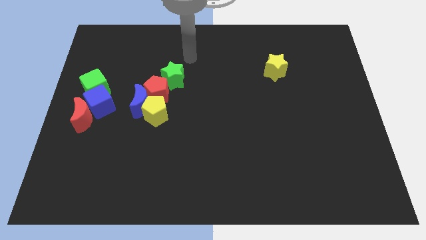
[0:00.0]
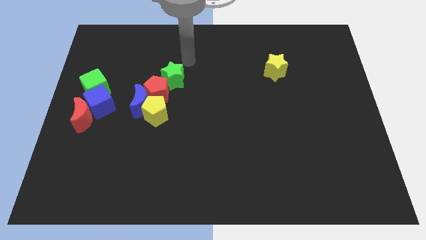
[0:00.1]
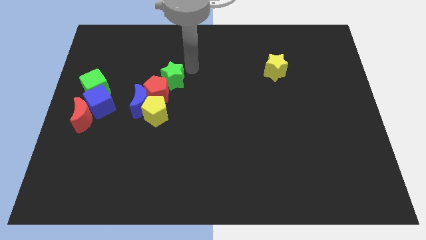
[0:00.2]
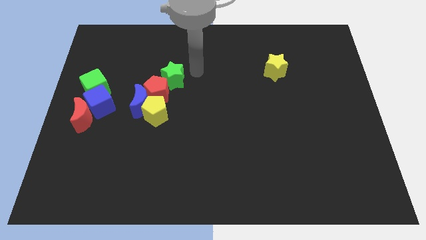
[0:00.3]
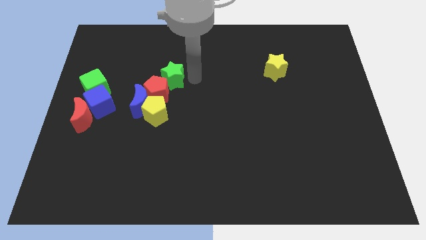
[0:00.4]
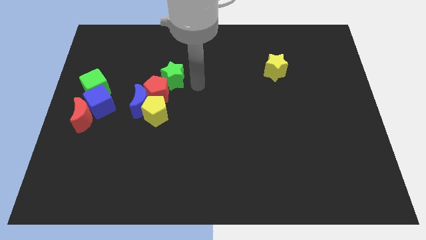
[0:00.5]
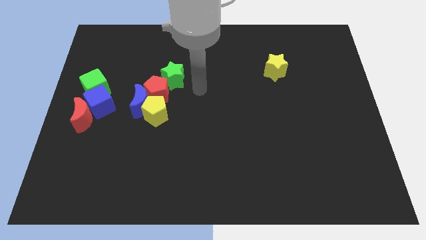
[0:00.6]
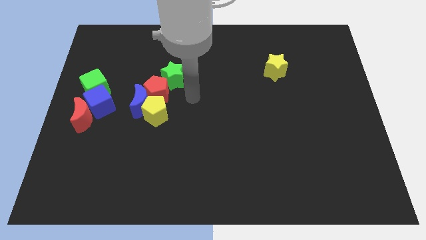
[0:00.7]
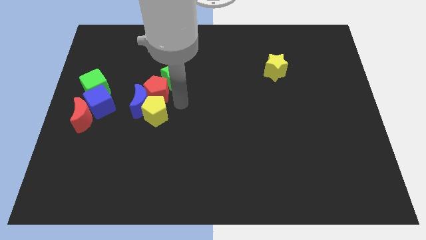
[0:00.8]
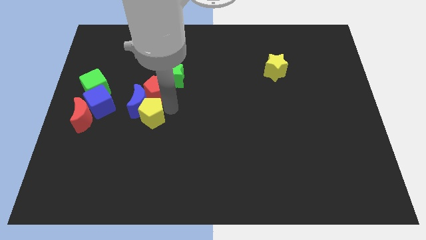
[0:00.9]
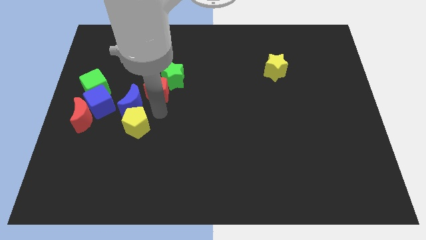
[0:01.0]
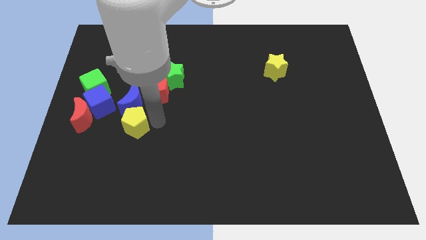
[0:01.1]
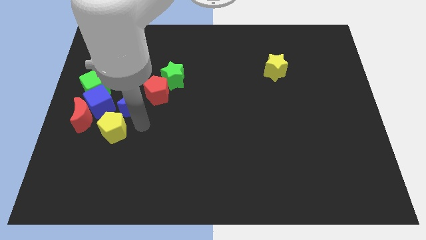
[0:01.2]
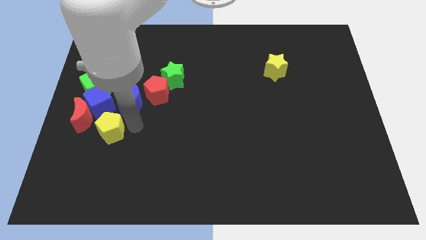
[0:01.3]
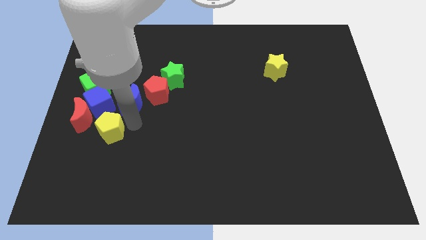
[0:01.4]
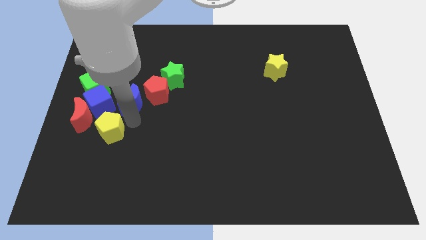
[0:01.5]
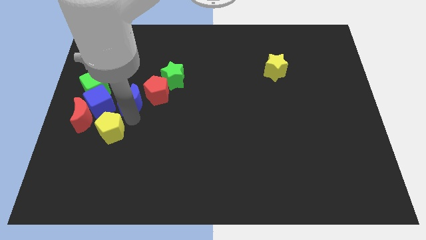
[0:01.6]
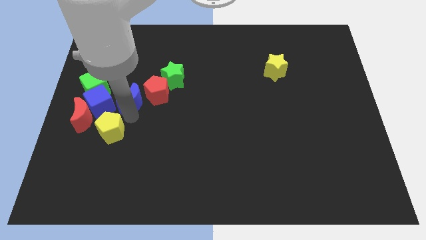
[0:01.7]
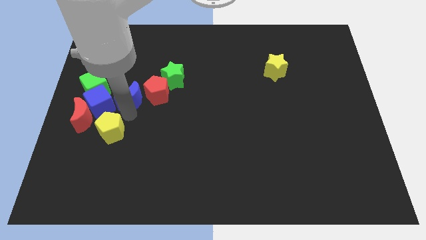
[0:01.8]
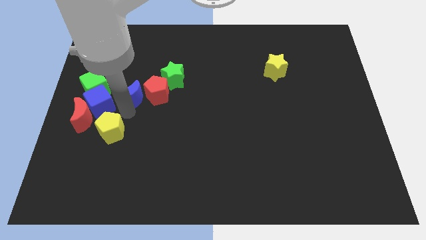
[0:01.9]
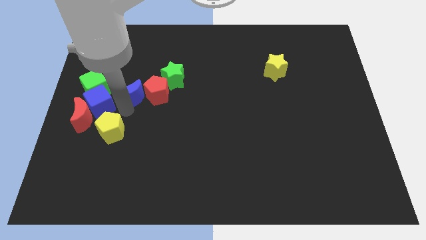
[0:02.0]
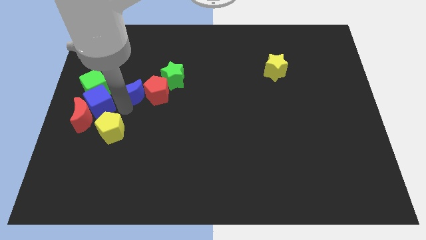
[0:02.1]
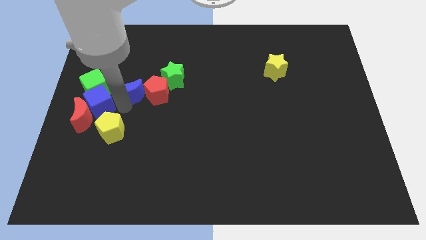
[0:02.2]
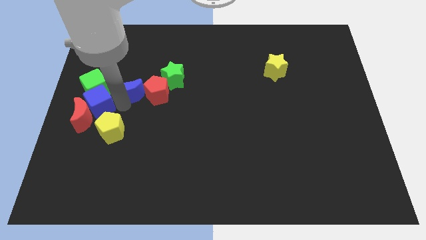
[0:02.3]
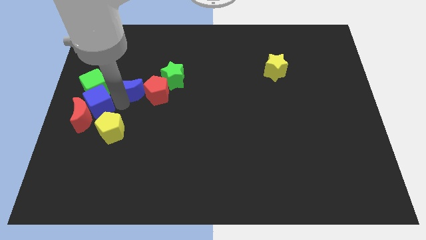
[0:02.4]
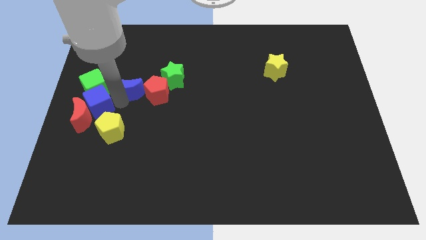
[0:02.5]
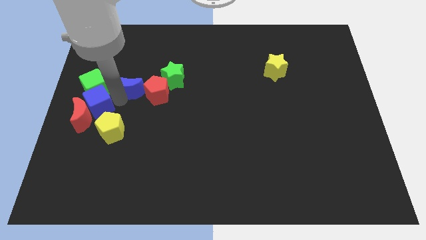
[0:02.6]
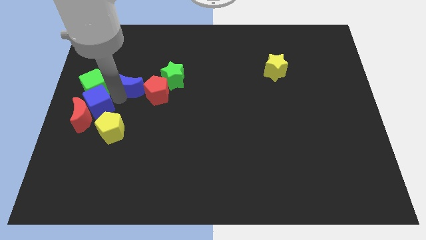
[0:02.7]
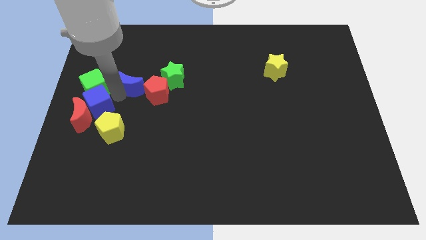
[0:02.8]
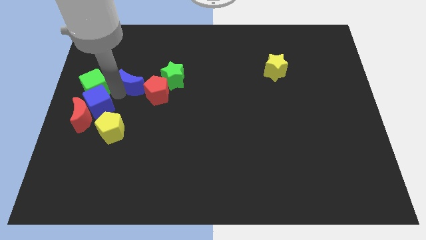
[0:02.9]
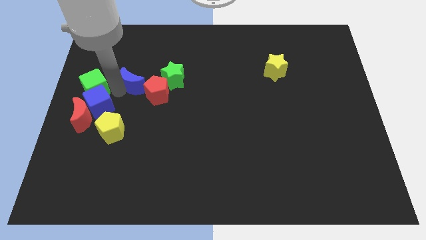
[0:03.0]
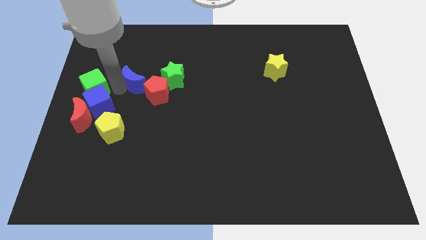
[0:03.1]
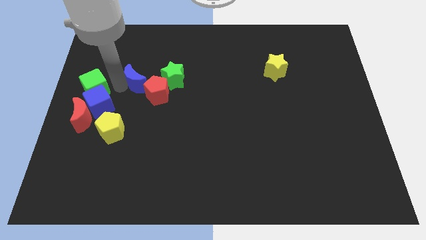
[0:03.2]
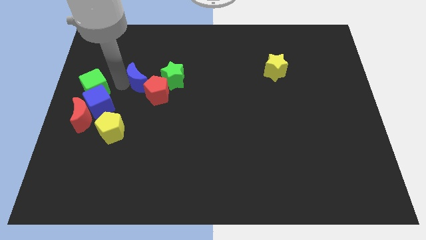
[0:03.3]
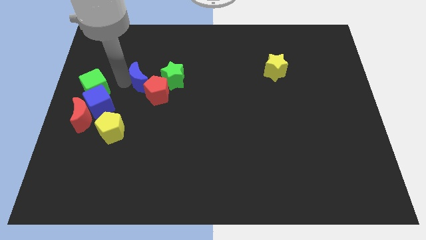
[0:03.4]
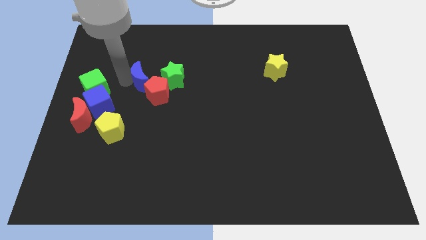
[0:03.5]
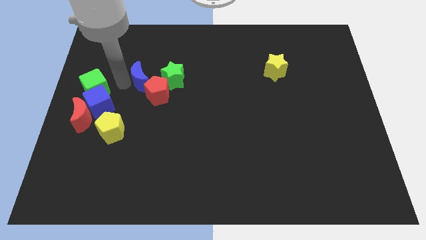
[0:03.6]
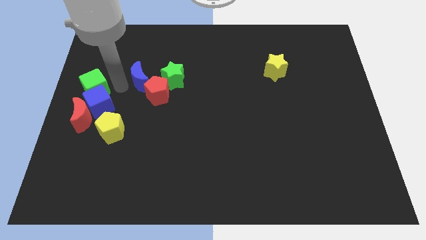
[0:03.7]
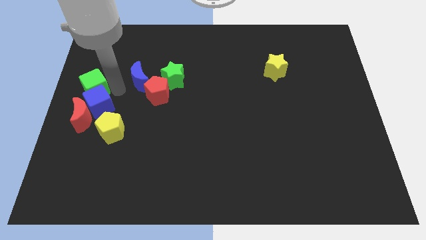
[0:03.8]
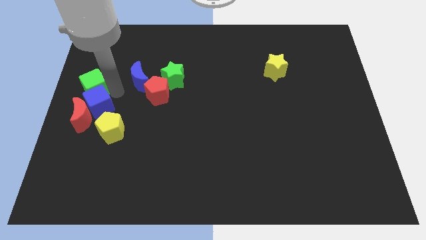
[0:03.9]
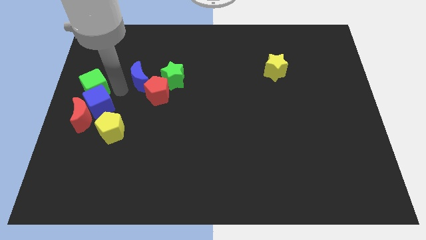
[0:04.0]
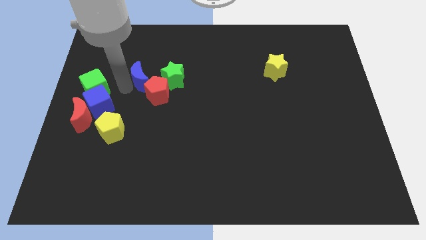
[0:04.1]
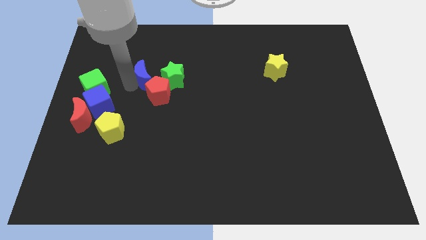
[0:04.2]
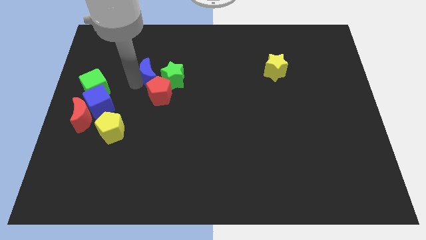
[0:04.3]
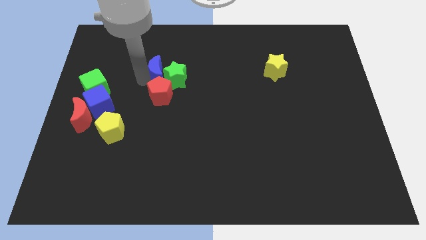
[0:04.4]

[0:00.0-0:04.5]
slide the blue moon diagonally up and to the right somewhat

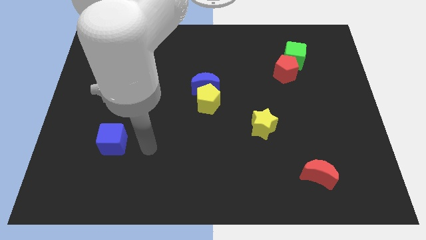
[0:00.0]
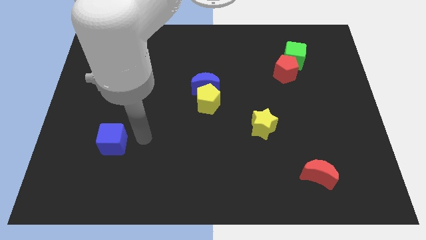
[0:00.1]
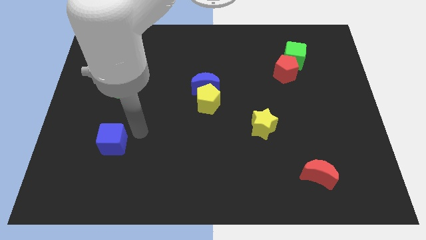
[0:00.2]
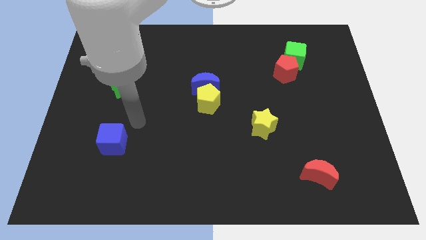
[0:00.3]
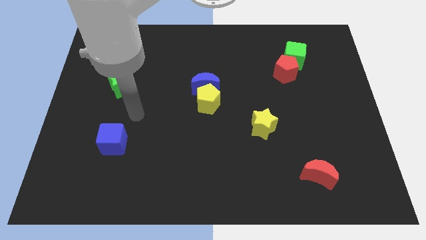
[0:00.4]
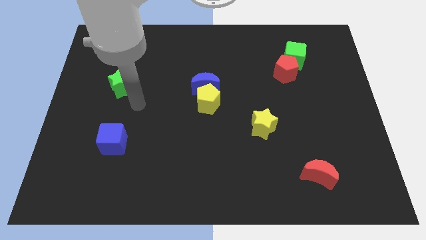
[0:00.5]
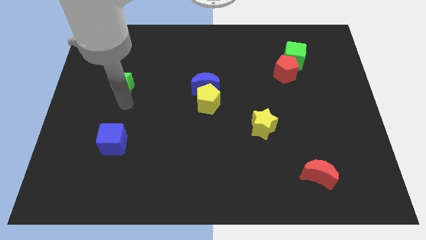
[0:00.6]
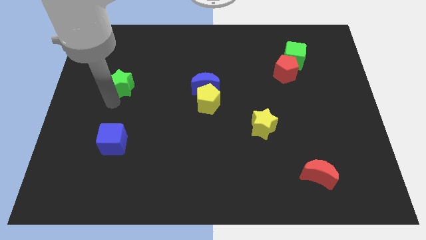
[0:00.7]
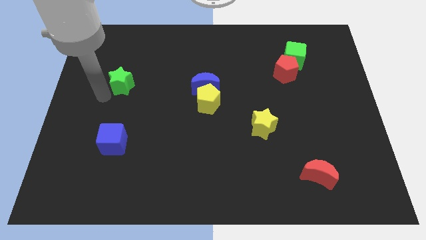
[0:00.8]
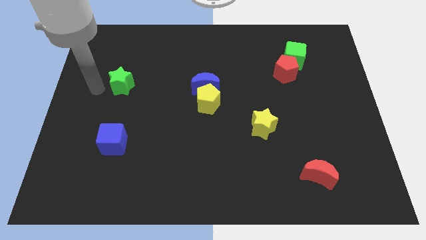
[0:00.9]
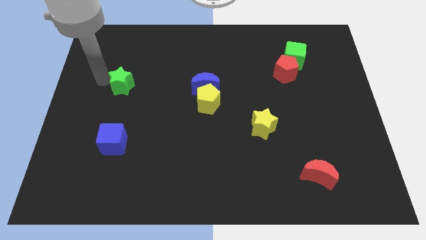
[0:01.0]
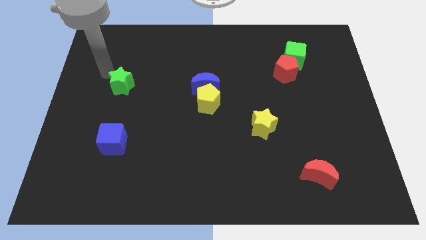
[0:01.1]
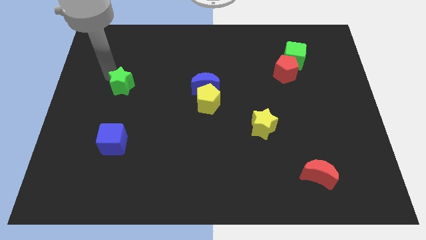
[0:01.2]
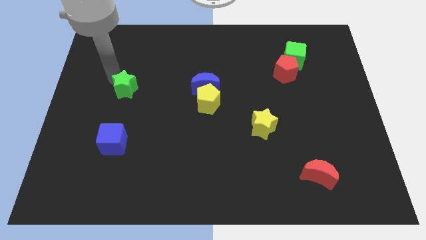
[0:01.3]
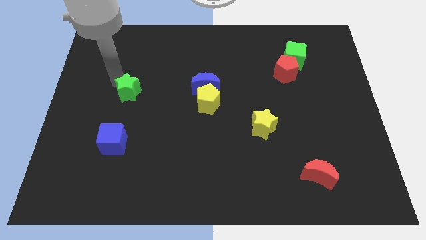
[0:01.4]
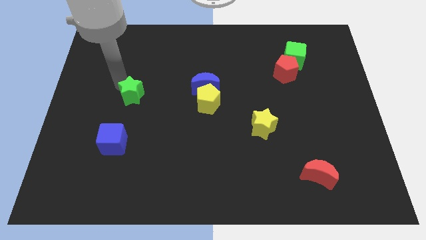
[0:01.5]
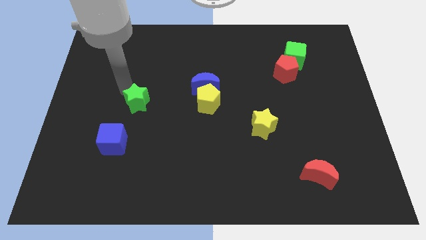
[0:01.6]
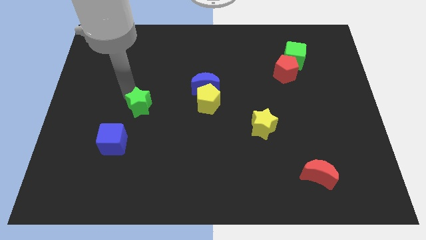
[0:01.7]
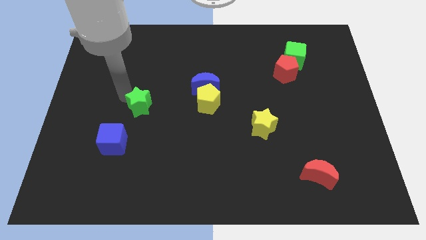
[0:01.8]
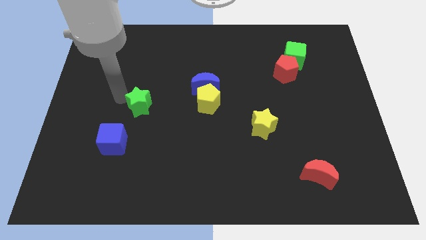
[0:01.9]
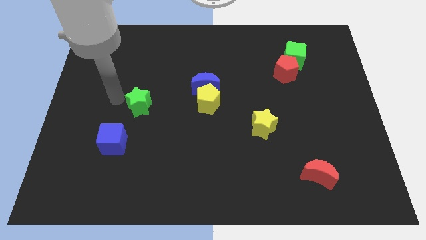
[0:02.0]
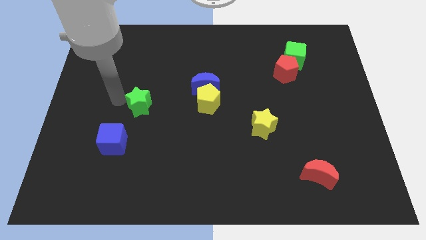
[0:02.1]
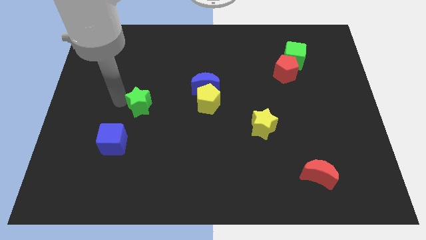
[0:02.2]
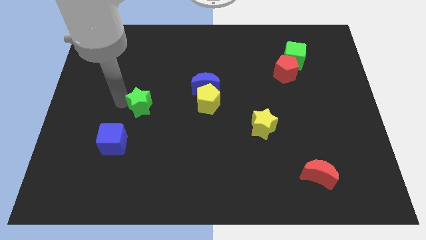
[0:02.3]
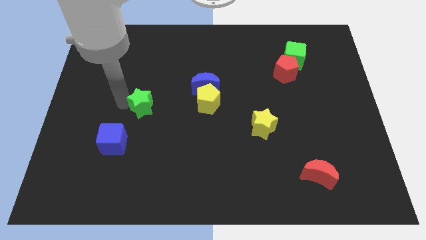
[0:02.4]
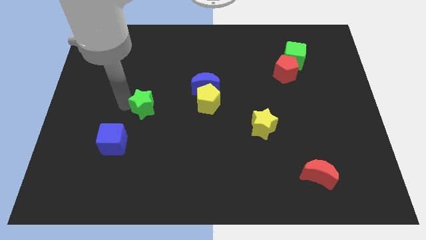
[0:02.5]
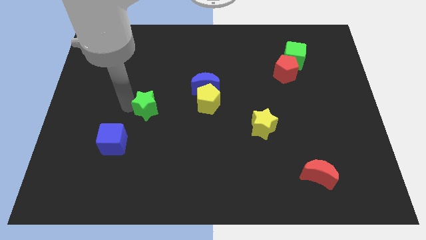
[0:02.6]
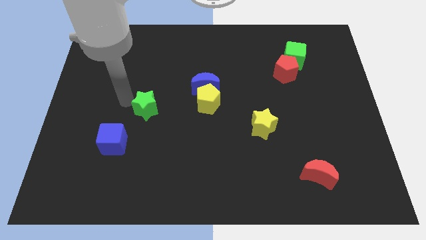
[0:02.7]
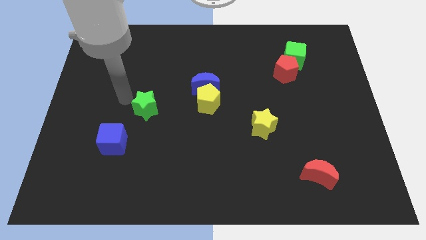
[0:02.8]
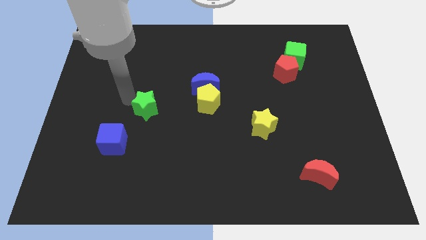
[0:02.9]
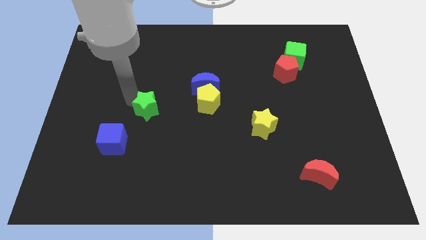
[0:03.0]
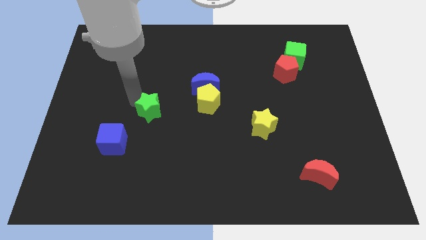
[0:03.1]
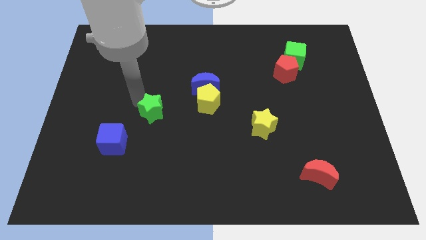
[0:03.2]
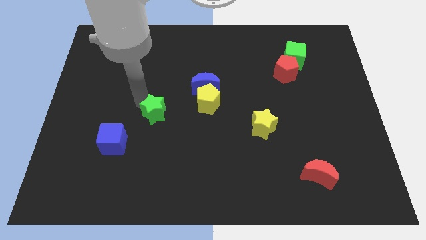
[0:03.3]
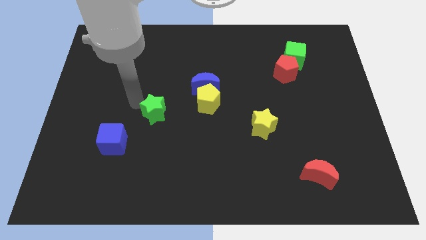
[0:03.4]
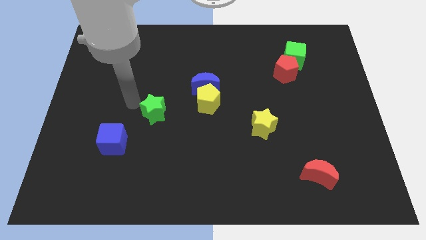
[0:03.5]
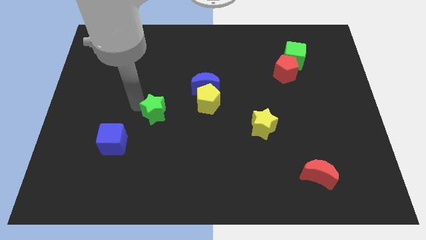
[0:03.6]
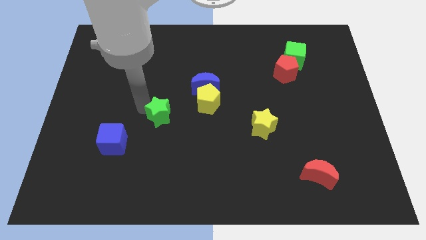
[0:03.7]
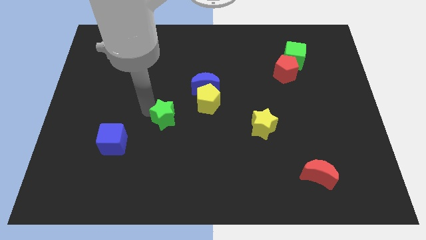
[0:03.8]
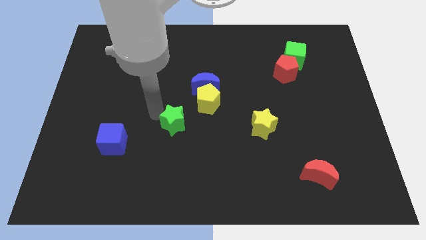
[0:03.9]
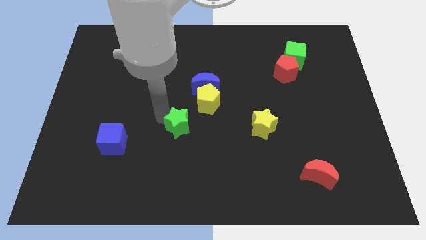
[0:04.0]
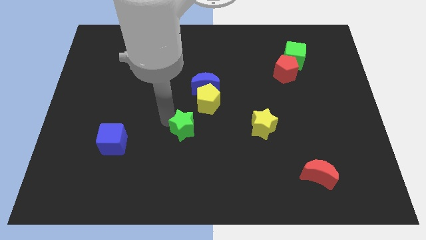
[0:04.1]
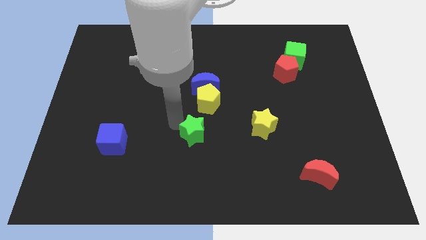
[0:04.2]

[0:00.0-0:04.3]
move the green star diagonally down and right
